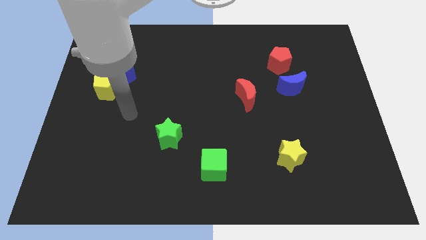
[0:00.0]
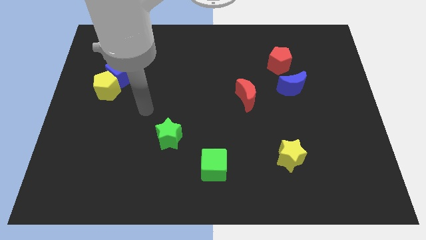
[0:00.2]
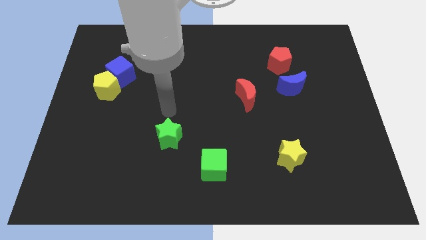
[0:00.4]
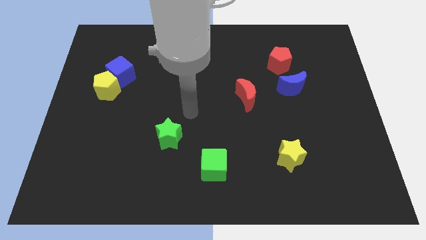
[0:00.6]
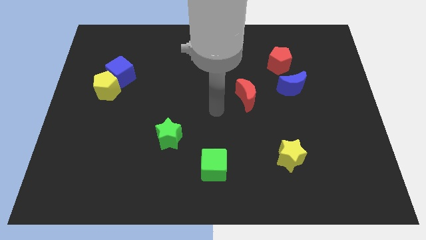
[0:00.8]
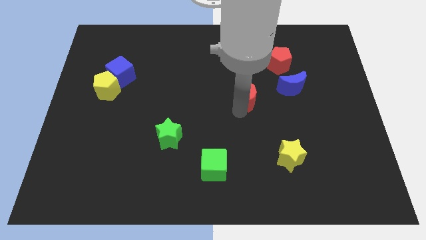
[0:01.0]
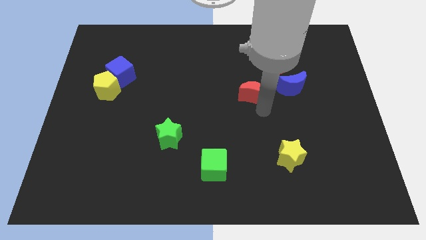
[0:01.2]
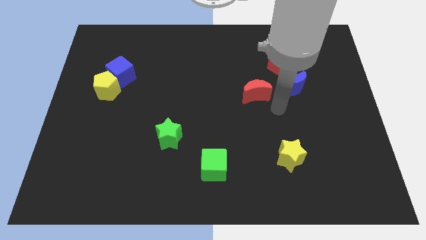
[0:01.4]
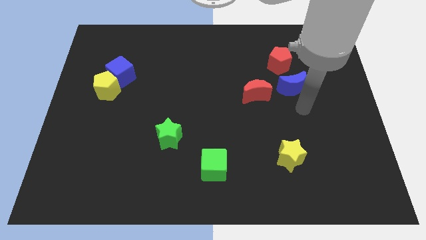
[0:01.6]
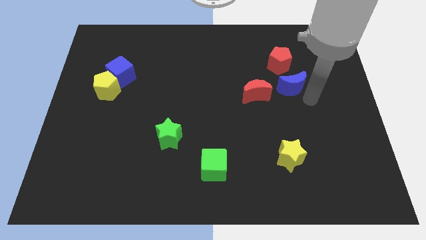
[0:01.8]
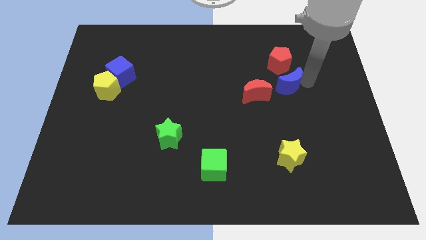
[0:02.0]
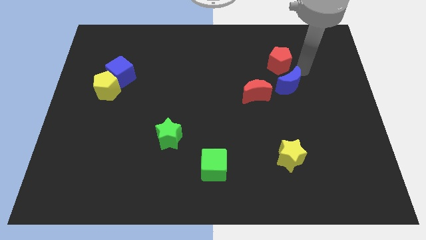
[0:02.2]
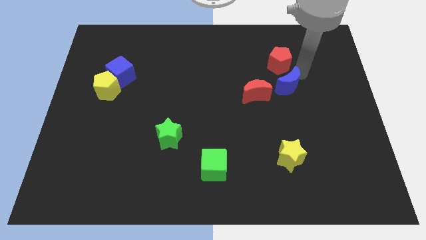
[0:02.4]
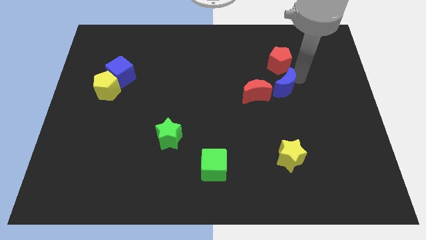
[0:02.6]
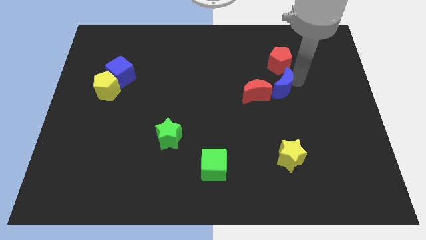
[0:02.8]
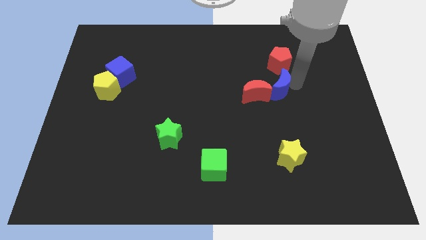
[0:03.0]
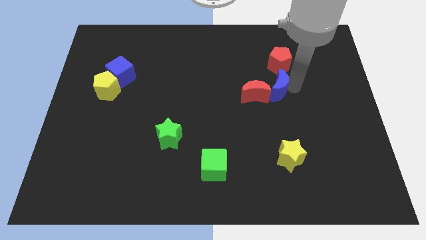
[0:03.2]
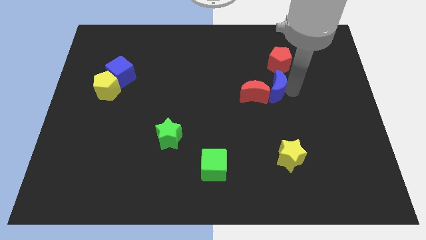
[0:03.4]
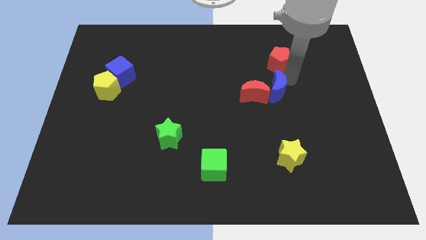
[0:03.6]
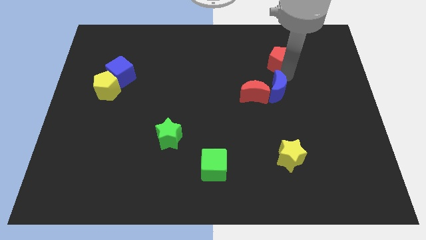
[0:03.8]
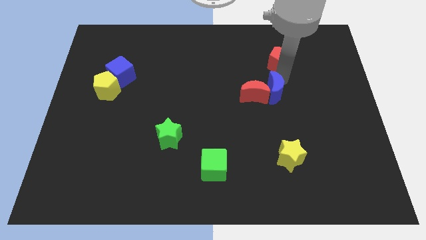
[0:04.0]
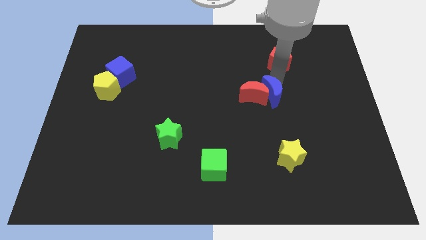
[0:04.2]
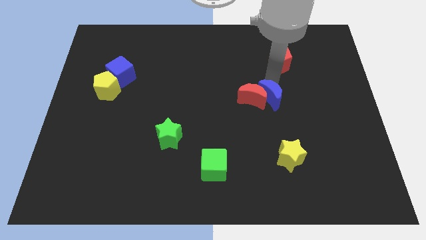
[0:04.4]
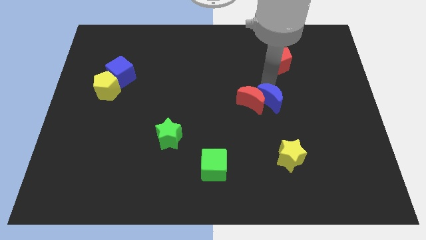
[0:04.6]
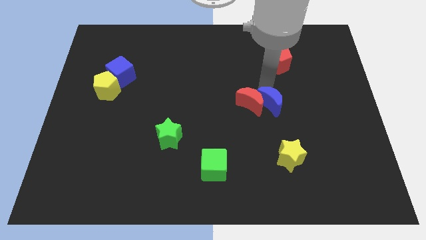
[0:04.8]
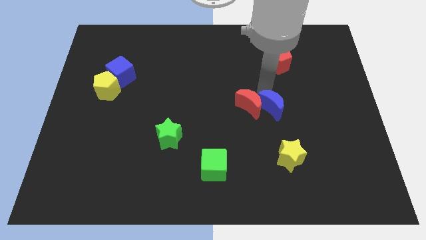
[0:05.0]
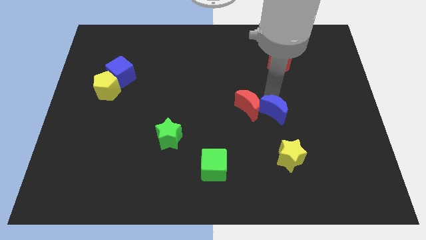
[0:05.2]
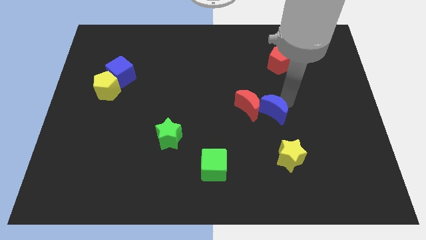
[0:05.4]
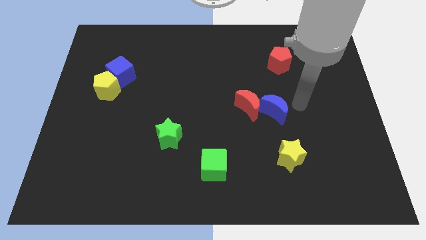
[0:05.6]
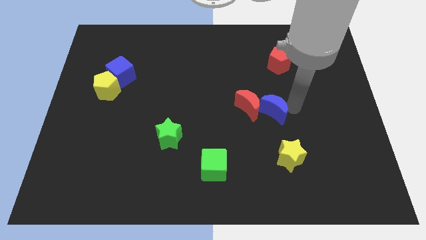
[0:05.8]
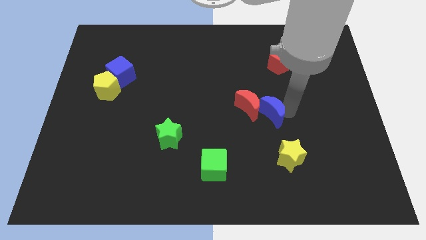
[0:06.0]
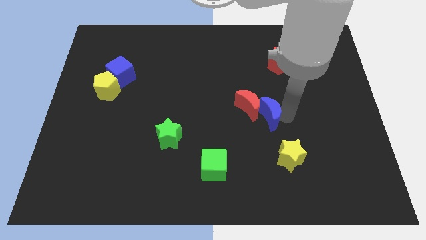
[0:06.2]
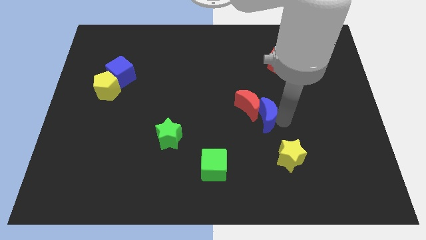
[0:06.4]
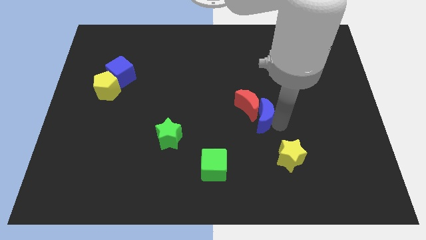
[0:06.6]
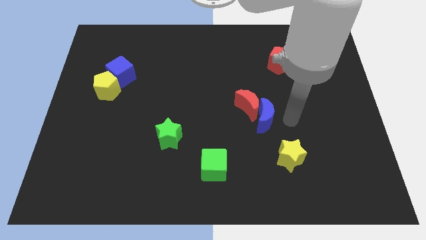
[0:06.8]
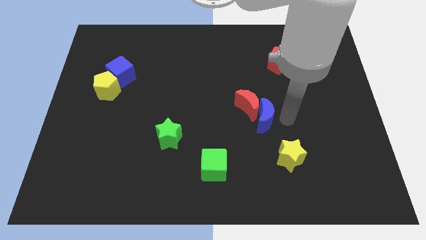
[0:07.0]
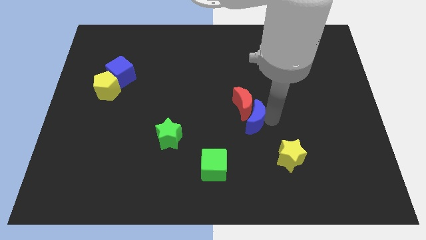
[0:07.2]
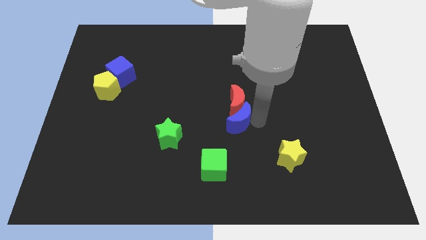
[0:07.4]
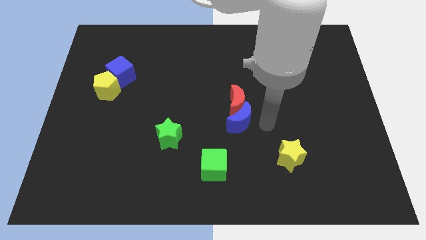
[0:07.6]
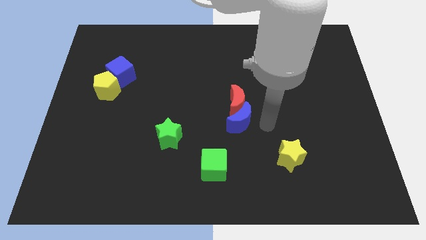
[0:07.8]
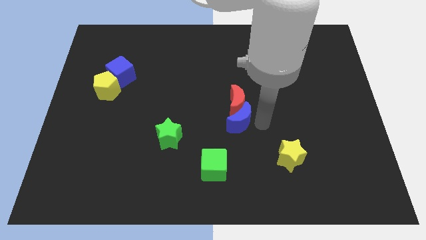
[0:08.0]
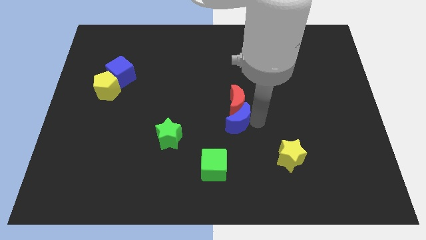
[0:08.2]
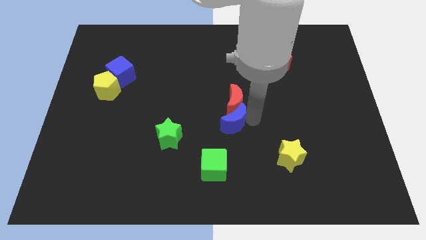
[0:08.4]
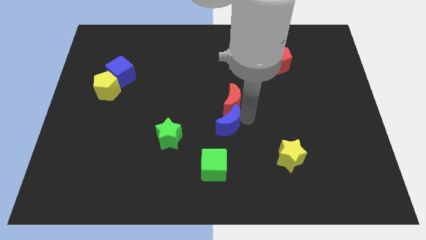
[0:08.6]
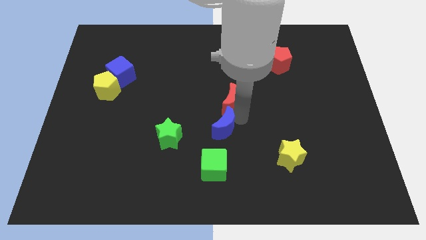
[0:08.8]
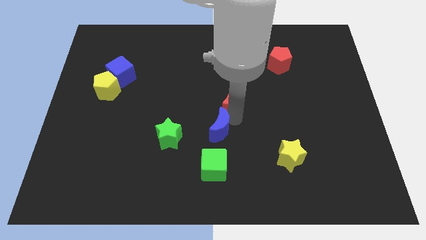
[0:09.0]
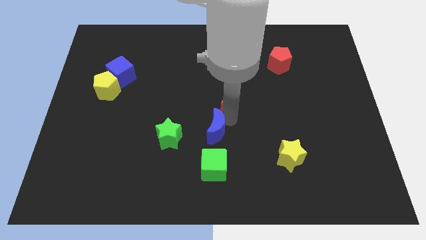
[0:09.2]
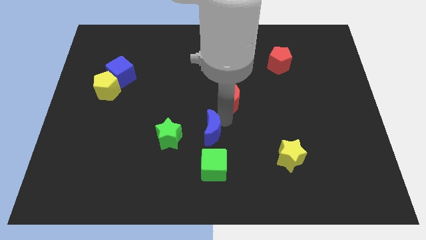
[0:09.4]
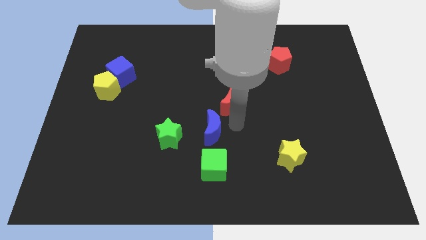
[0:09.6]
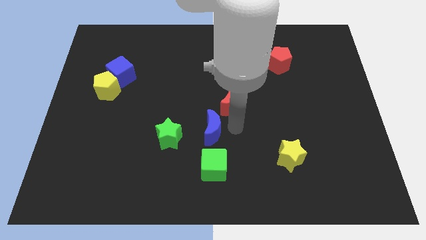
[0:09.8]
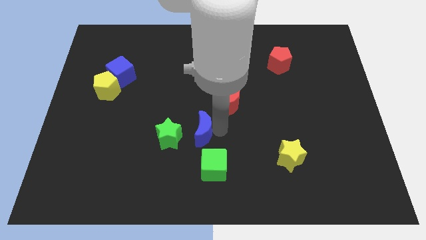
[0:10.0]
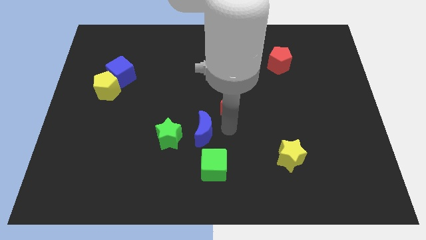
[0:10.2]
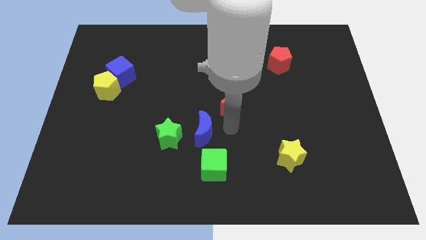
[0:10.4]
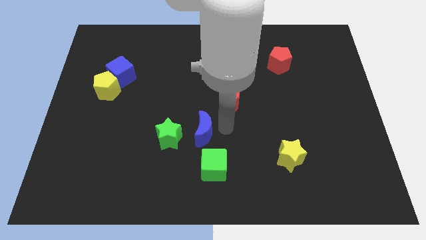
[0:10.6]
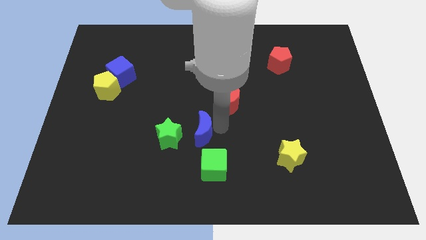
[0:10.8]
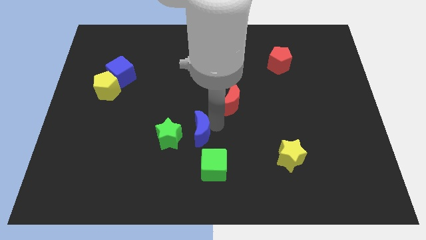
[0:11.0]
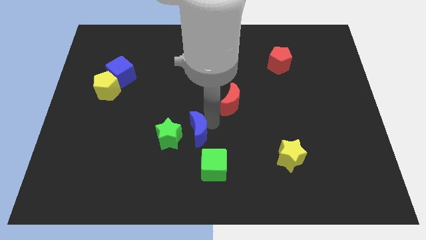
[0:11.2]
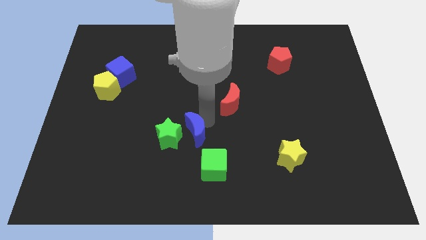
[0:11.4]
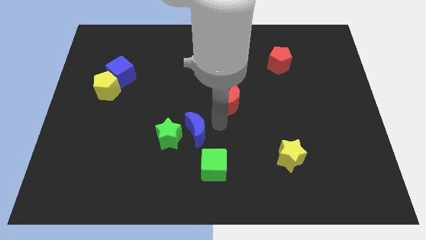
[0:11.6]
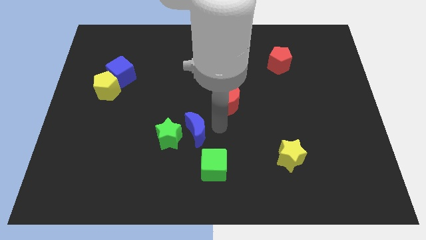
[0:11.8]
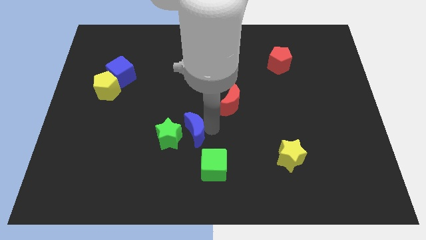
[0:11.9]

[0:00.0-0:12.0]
slide the blue moon to the green star
